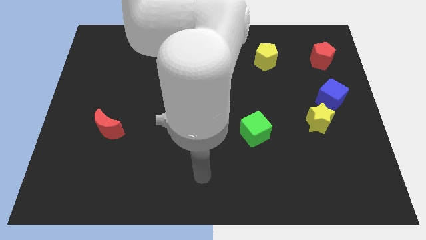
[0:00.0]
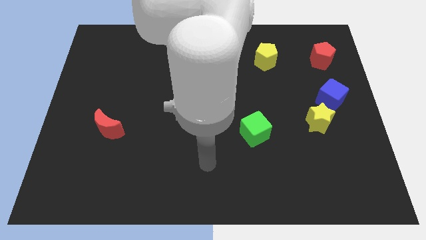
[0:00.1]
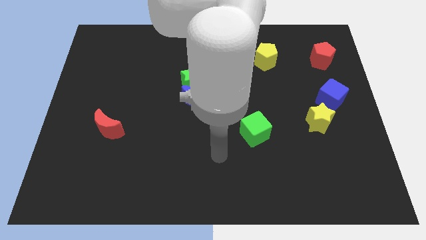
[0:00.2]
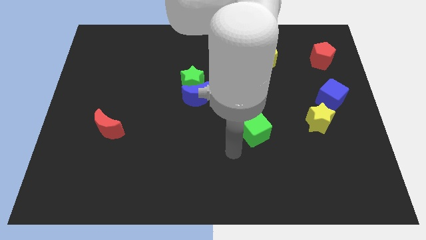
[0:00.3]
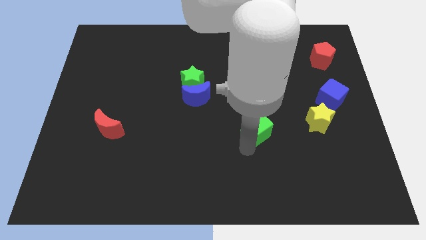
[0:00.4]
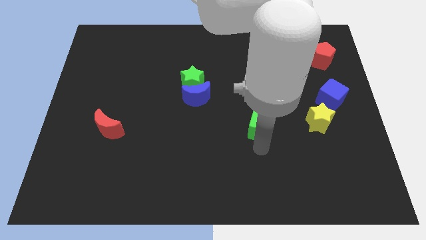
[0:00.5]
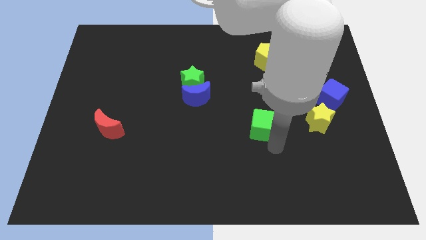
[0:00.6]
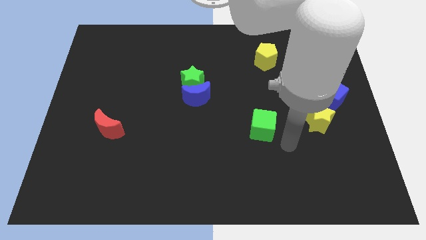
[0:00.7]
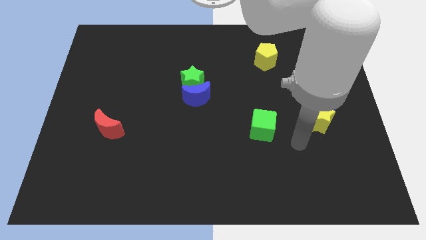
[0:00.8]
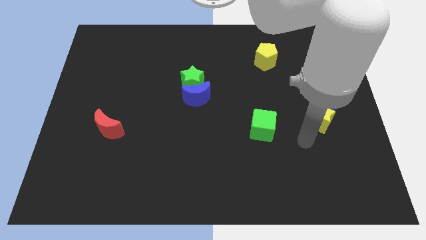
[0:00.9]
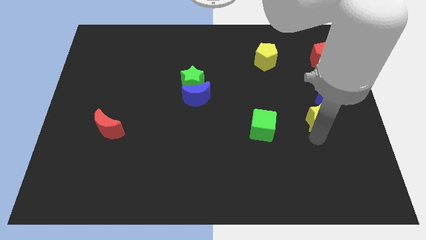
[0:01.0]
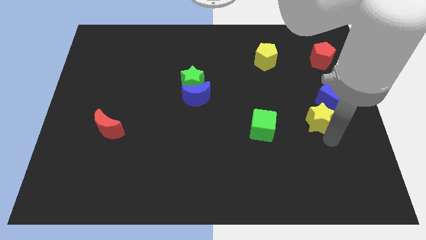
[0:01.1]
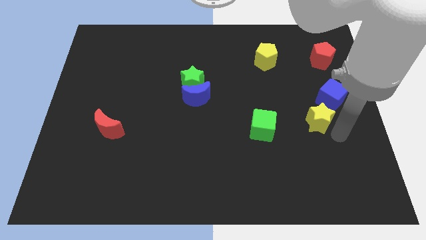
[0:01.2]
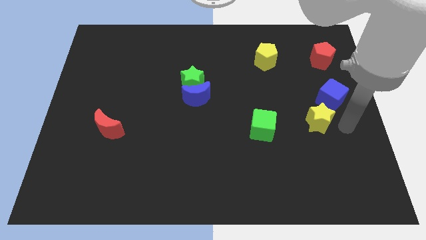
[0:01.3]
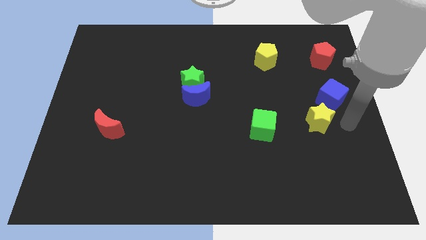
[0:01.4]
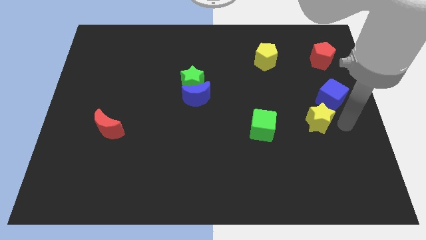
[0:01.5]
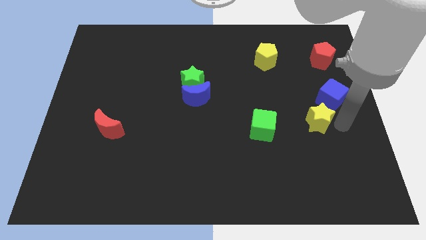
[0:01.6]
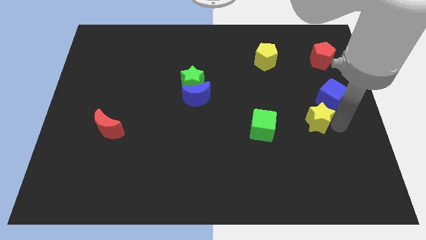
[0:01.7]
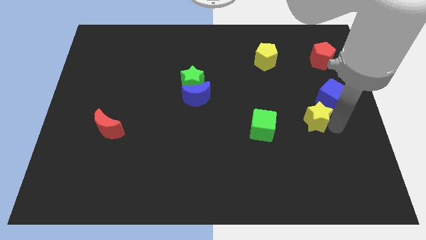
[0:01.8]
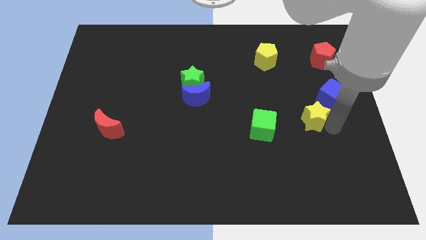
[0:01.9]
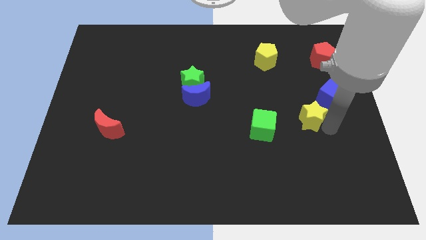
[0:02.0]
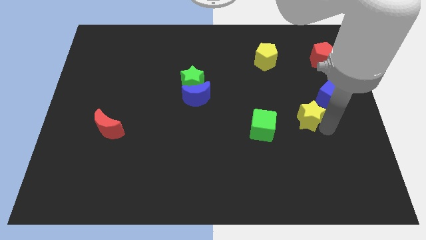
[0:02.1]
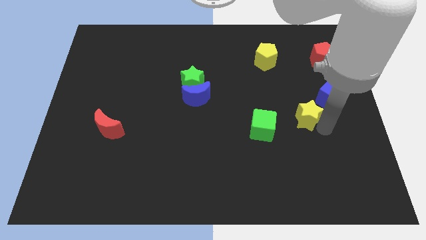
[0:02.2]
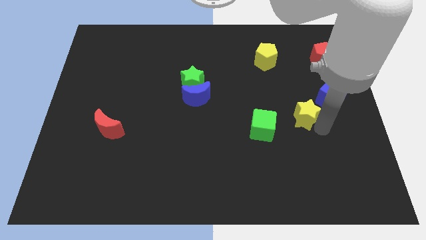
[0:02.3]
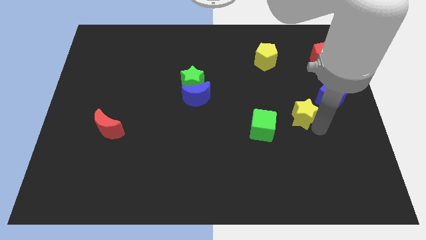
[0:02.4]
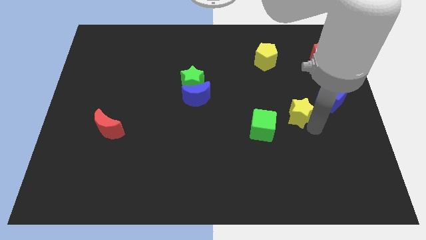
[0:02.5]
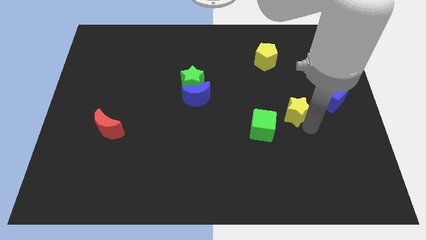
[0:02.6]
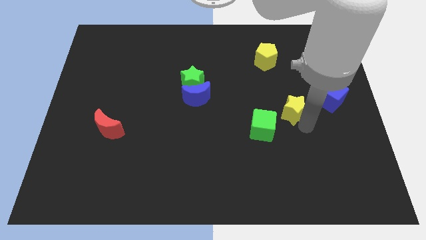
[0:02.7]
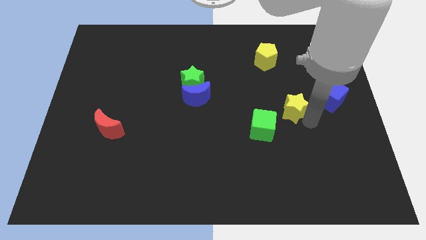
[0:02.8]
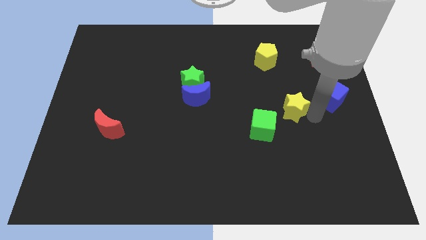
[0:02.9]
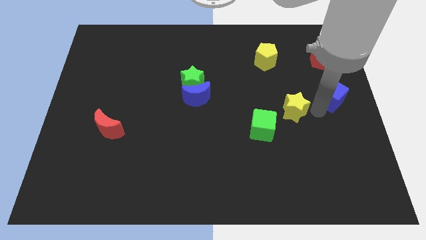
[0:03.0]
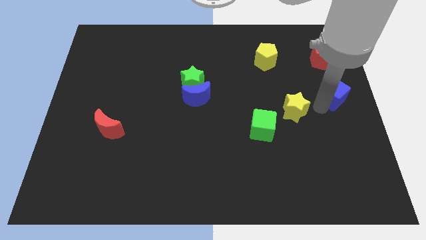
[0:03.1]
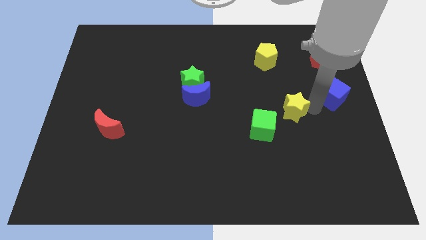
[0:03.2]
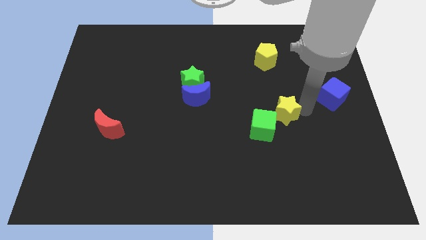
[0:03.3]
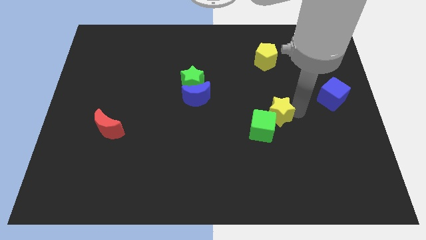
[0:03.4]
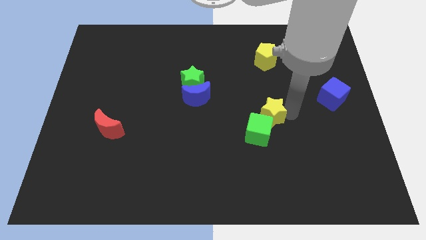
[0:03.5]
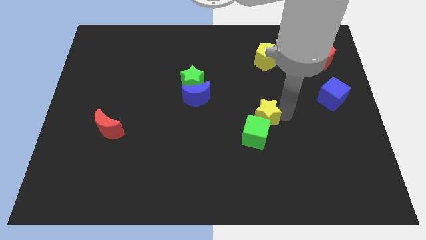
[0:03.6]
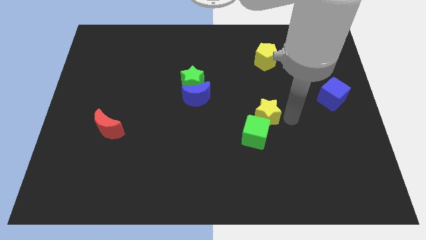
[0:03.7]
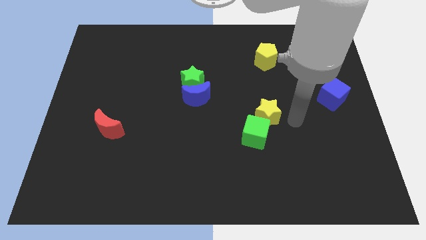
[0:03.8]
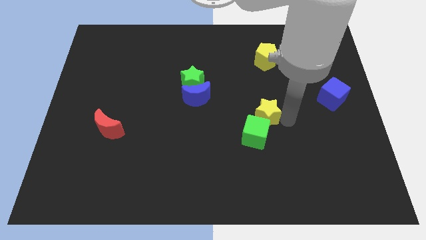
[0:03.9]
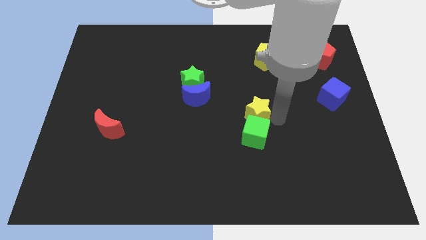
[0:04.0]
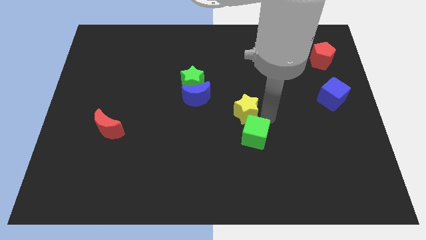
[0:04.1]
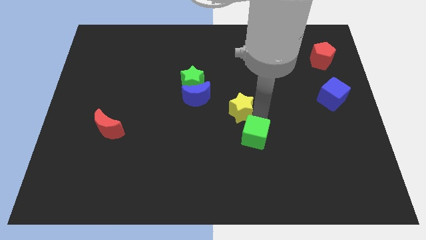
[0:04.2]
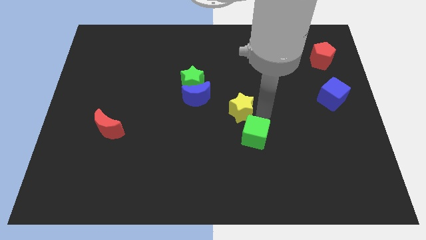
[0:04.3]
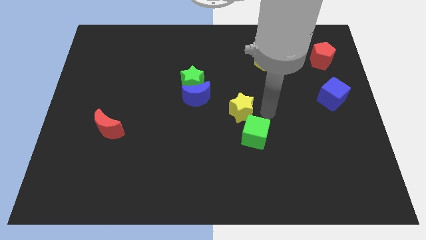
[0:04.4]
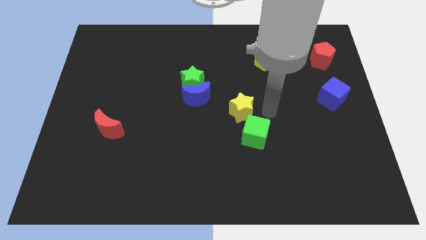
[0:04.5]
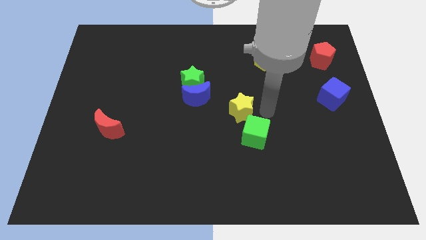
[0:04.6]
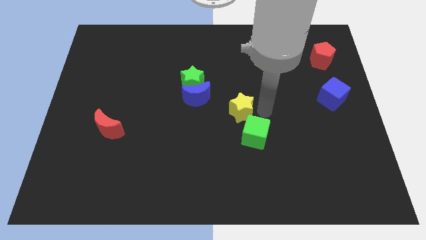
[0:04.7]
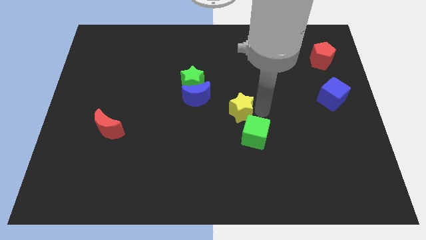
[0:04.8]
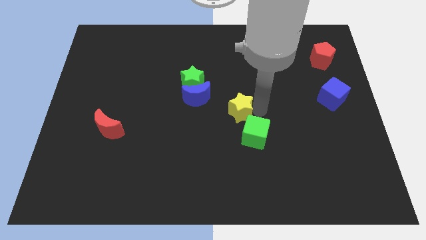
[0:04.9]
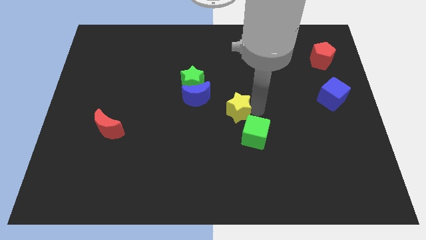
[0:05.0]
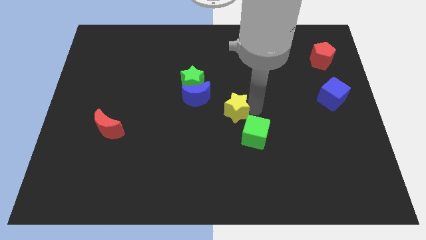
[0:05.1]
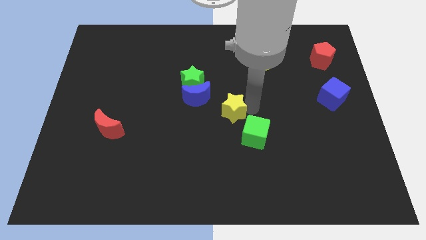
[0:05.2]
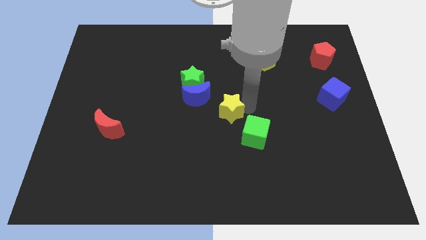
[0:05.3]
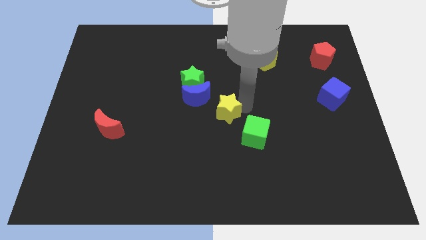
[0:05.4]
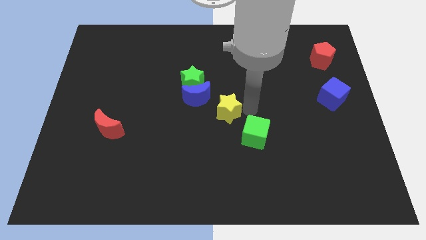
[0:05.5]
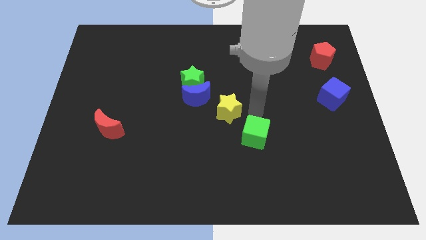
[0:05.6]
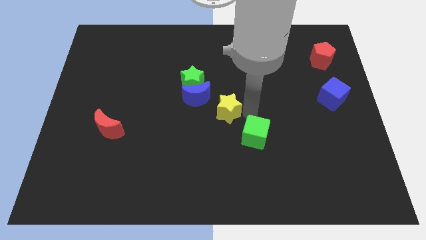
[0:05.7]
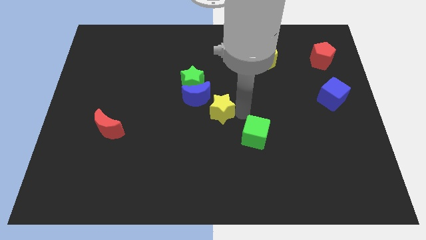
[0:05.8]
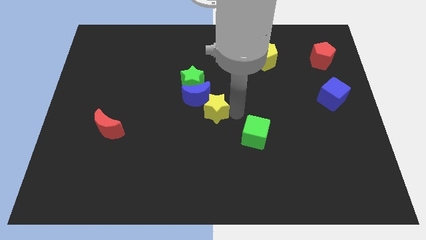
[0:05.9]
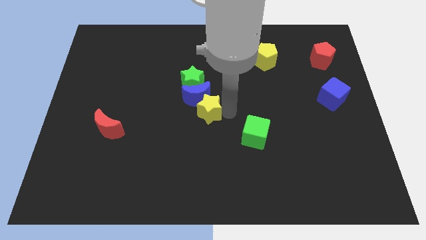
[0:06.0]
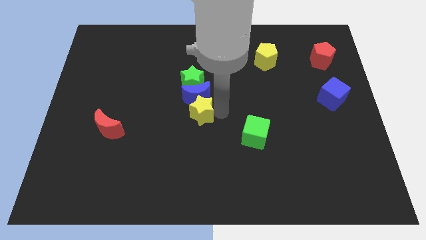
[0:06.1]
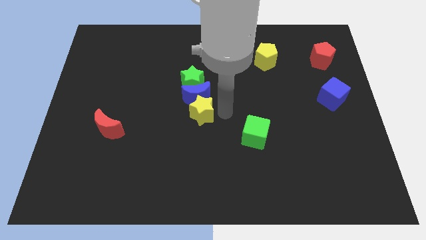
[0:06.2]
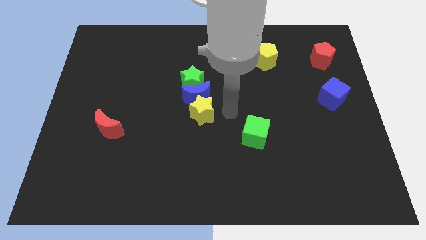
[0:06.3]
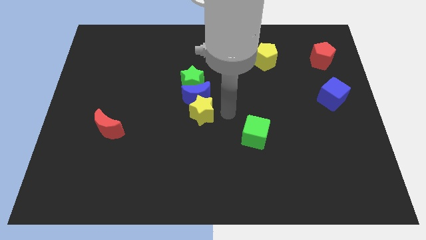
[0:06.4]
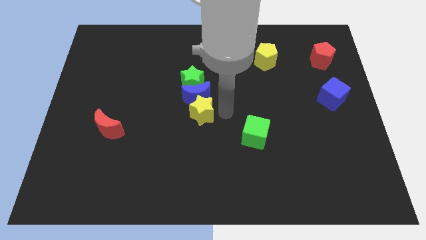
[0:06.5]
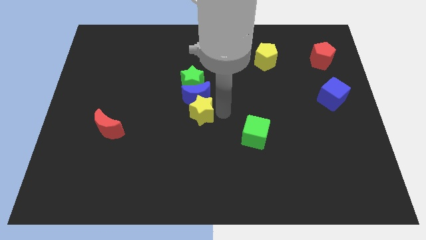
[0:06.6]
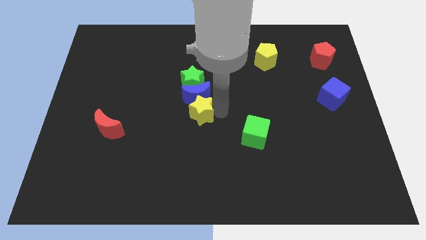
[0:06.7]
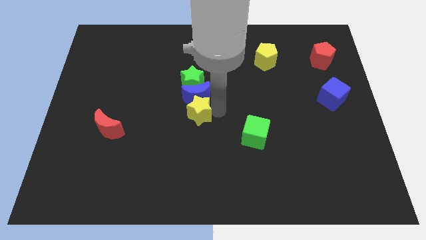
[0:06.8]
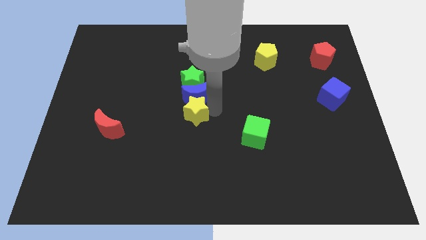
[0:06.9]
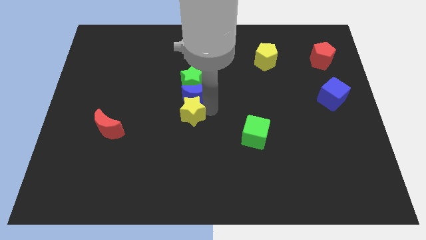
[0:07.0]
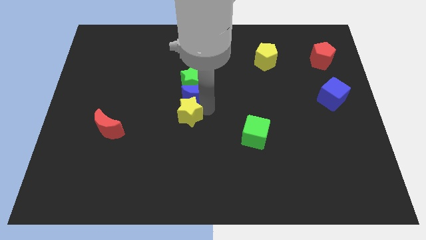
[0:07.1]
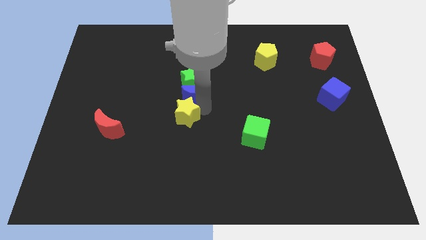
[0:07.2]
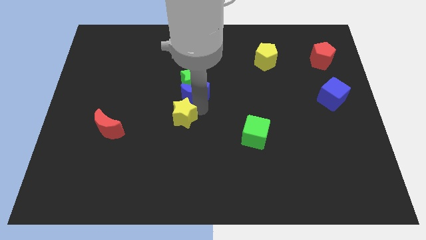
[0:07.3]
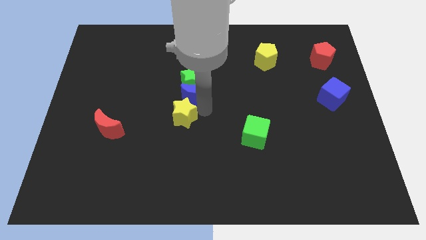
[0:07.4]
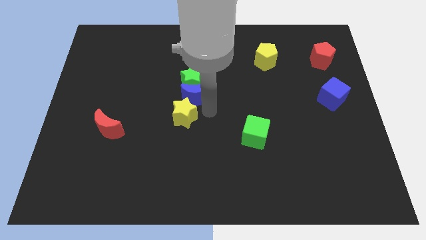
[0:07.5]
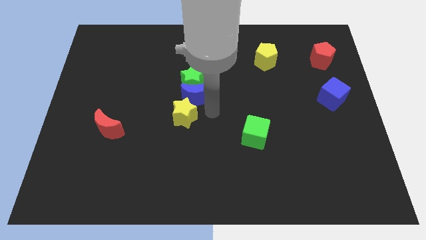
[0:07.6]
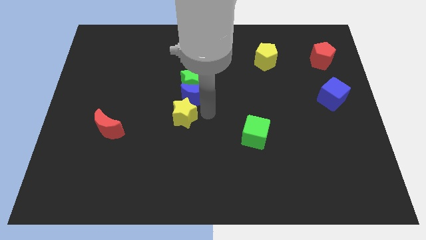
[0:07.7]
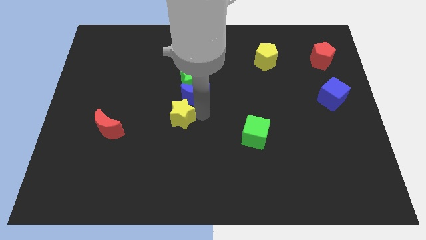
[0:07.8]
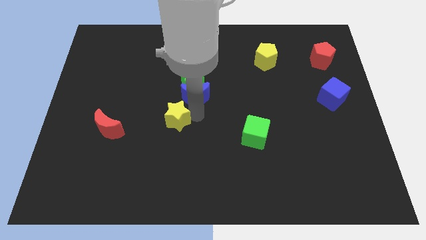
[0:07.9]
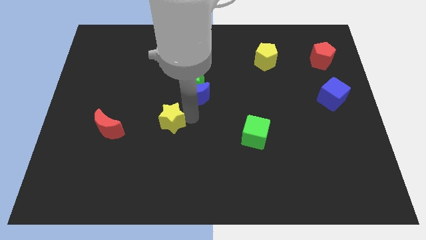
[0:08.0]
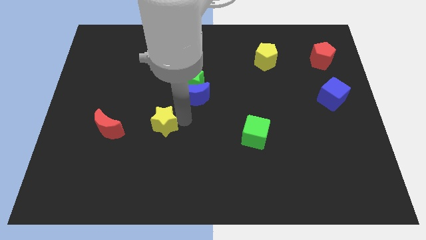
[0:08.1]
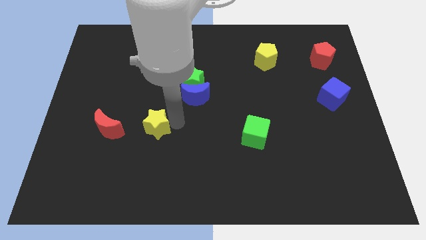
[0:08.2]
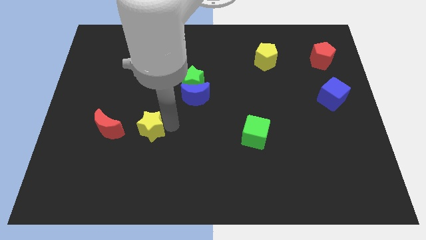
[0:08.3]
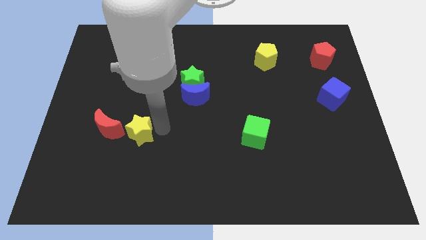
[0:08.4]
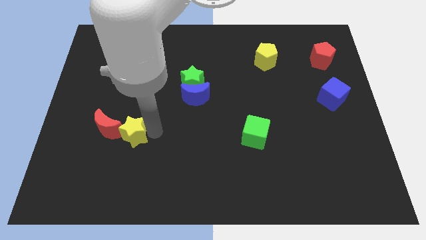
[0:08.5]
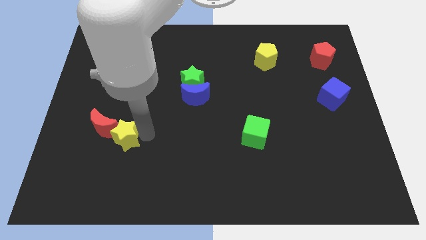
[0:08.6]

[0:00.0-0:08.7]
slide the yellow star to the red moon
